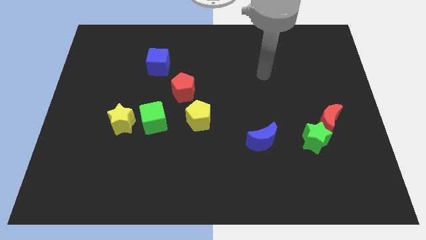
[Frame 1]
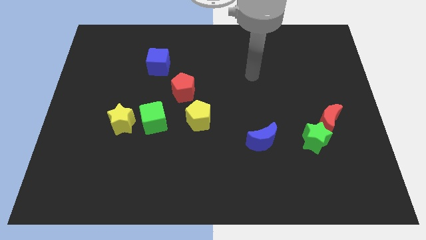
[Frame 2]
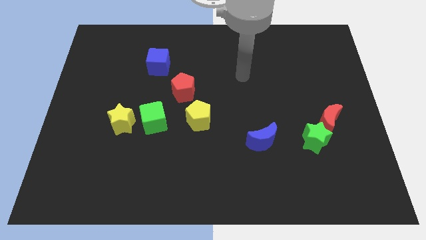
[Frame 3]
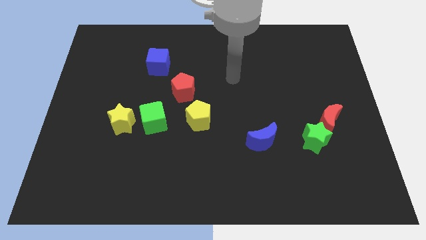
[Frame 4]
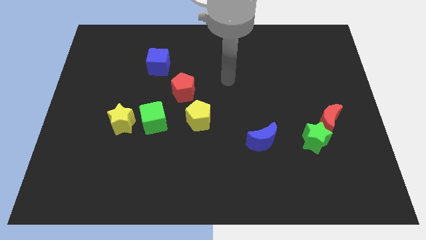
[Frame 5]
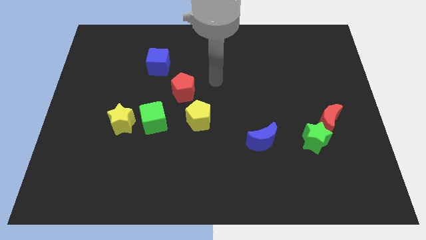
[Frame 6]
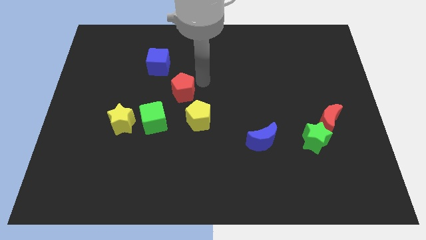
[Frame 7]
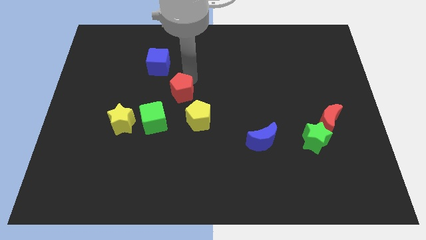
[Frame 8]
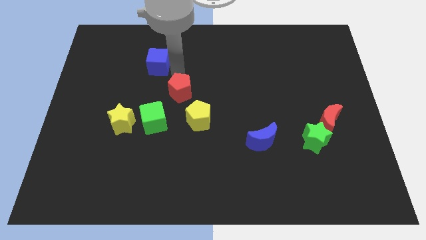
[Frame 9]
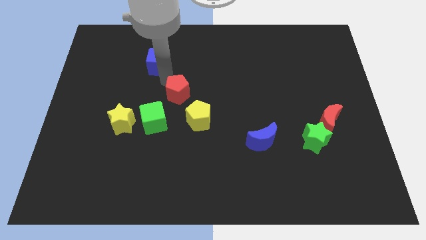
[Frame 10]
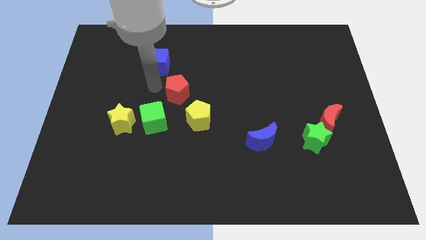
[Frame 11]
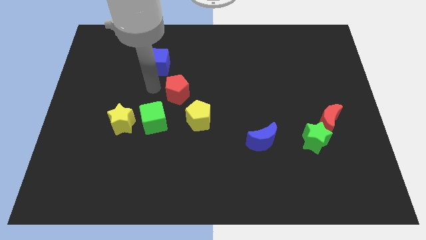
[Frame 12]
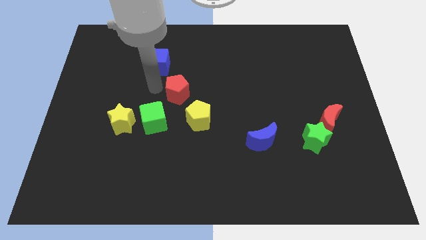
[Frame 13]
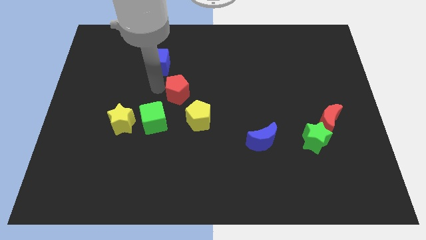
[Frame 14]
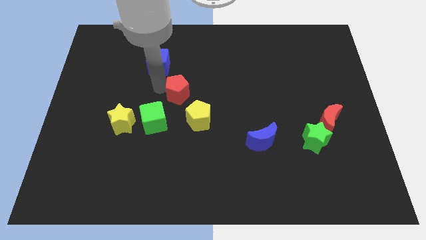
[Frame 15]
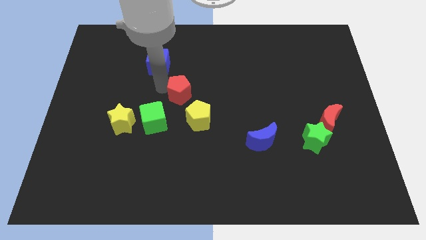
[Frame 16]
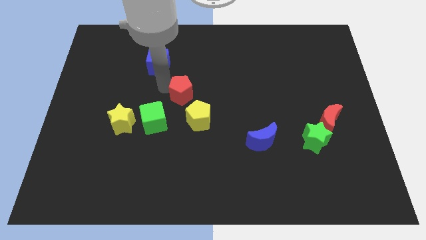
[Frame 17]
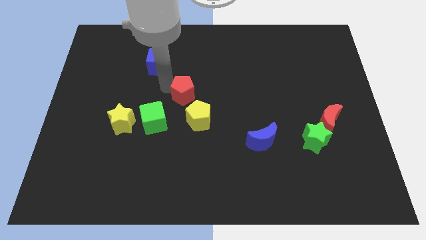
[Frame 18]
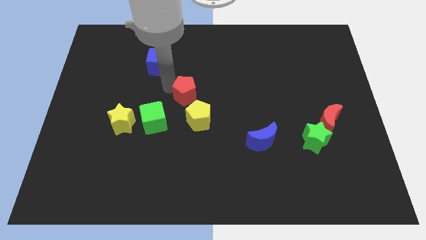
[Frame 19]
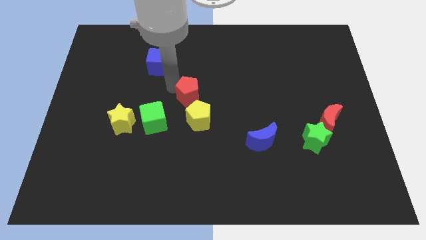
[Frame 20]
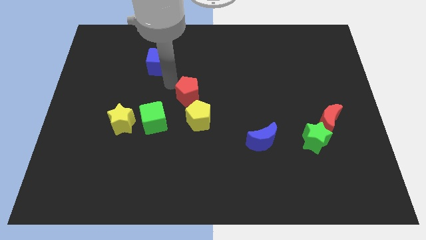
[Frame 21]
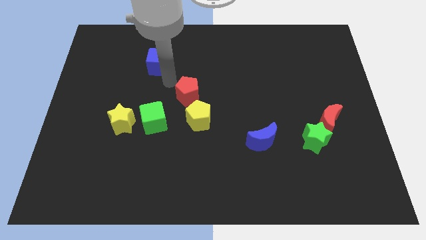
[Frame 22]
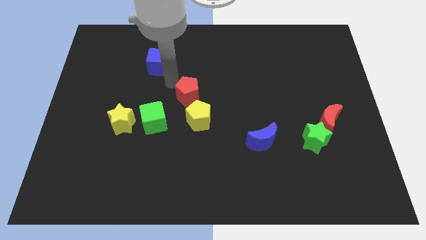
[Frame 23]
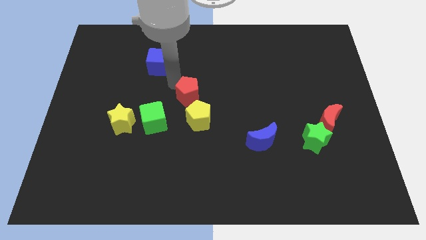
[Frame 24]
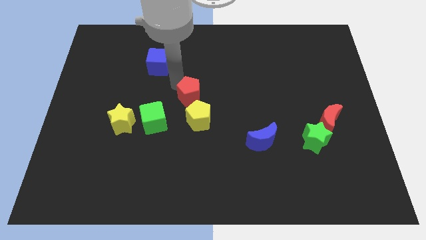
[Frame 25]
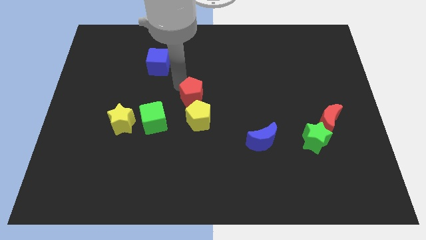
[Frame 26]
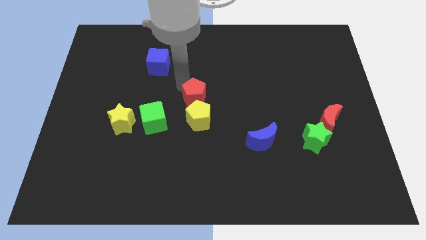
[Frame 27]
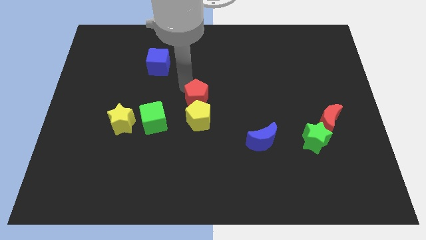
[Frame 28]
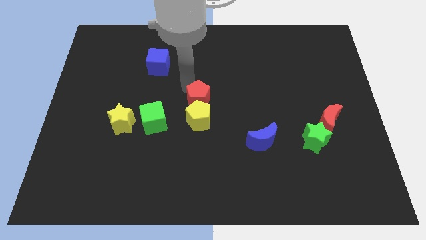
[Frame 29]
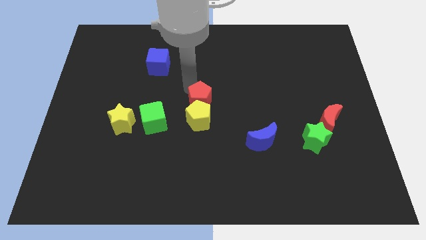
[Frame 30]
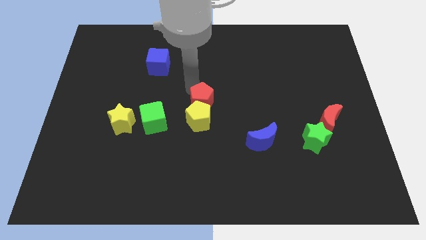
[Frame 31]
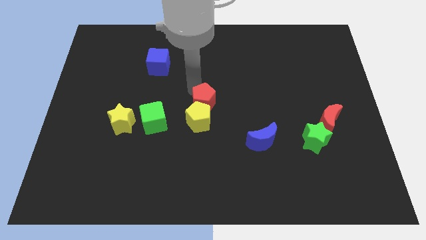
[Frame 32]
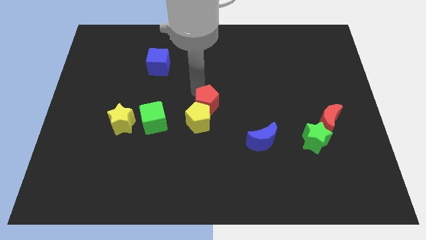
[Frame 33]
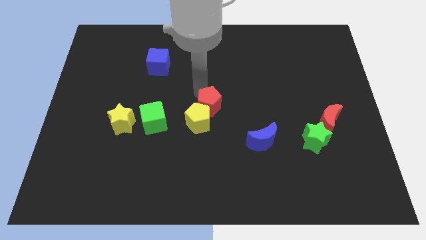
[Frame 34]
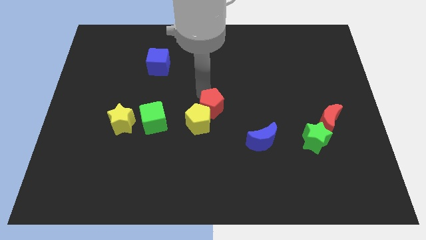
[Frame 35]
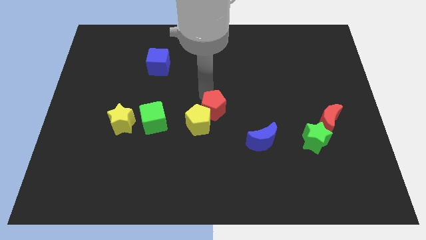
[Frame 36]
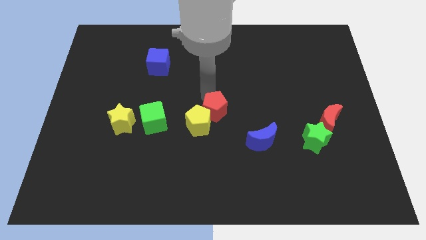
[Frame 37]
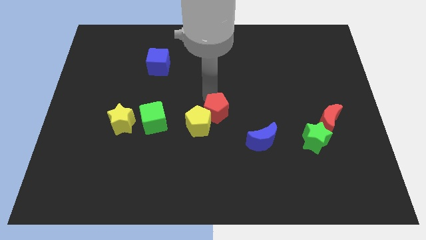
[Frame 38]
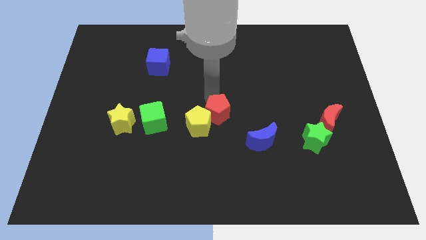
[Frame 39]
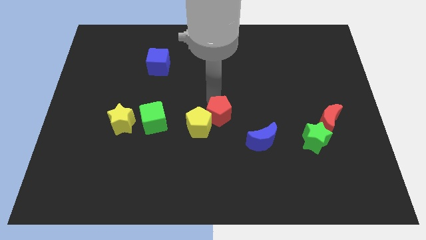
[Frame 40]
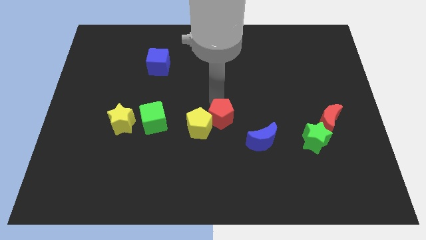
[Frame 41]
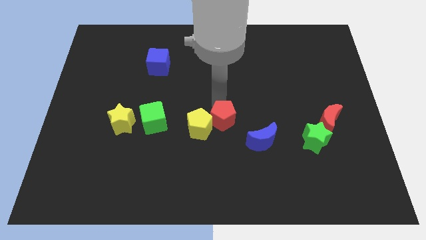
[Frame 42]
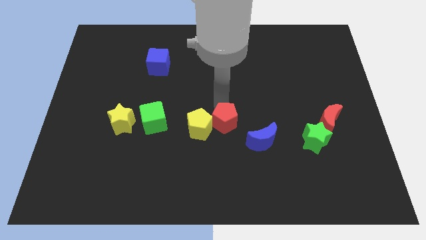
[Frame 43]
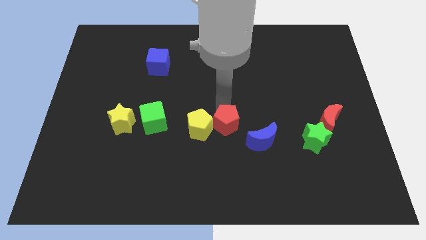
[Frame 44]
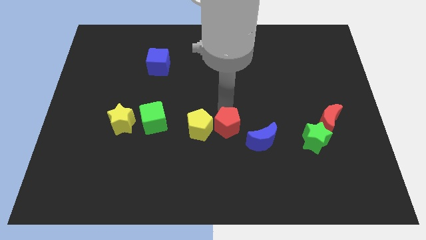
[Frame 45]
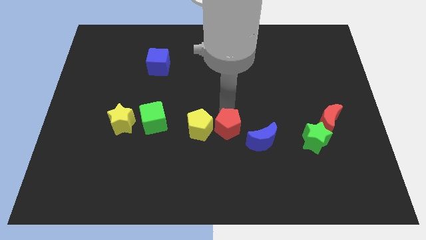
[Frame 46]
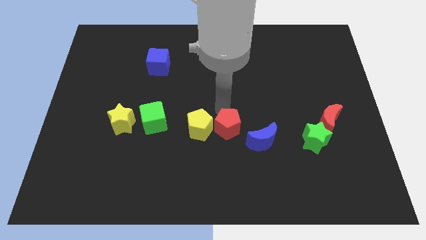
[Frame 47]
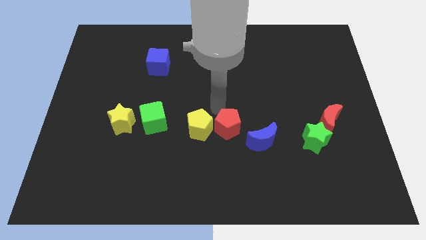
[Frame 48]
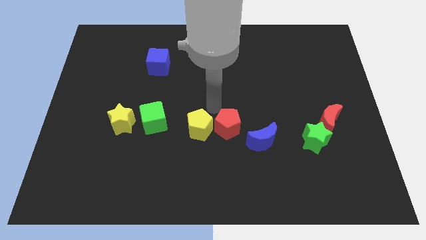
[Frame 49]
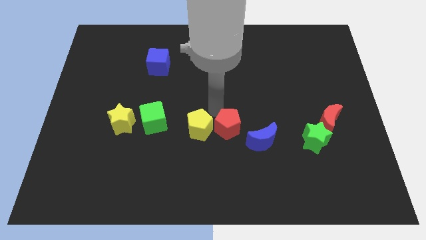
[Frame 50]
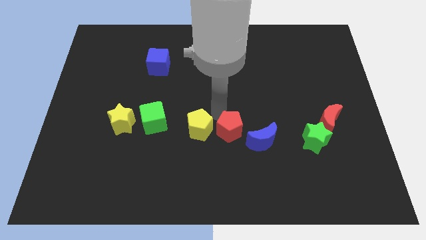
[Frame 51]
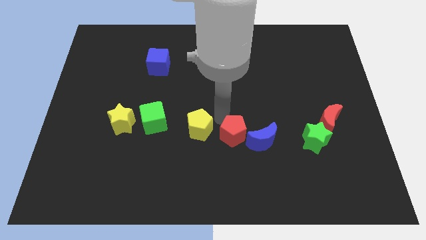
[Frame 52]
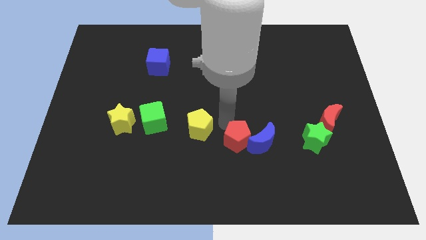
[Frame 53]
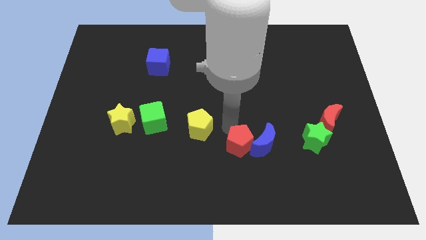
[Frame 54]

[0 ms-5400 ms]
move the red pentagon downwards and right

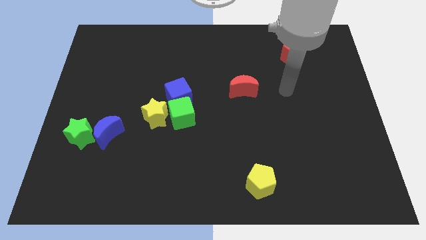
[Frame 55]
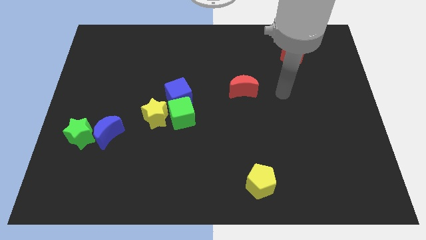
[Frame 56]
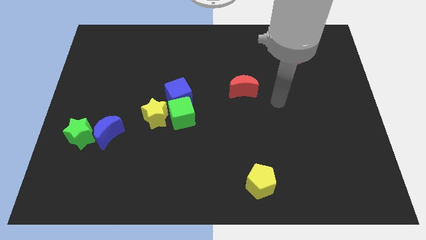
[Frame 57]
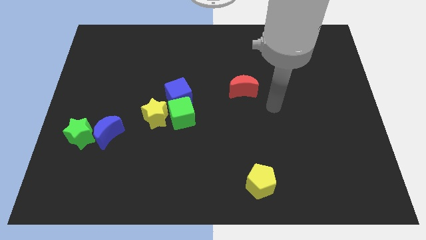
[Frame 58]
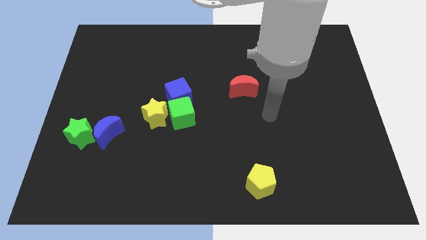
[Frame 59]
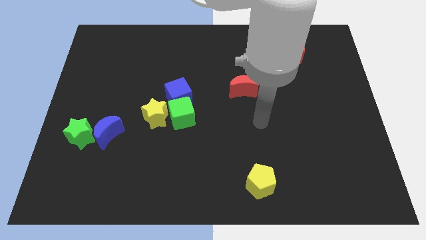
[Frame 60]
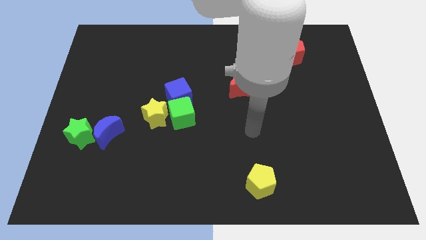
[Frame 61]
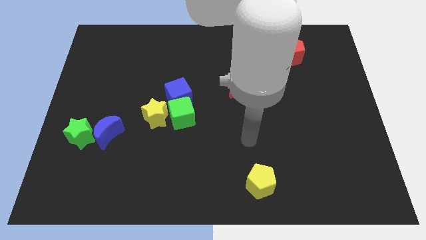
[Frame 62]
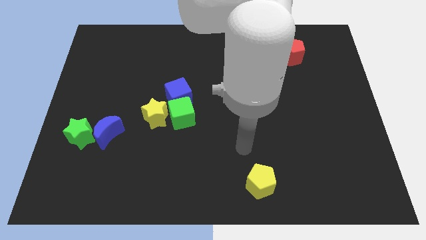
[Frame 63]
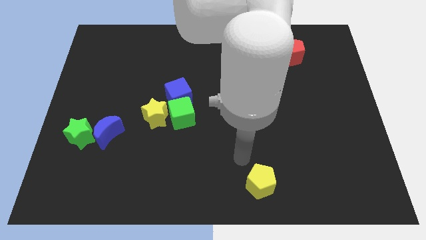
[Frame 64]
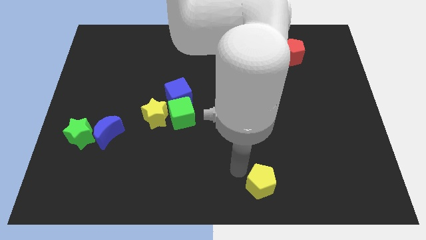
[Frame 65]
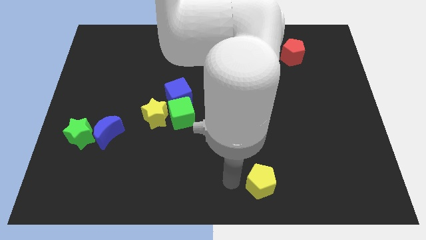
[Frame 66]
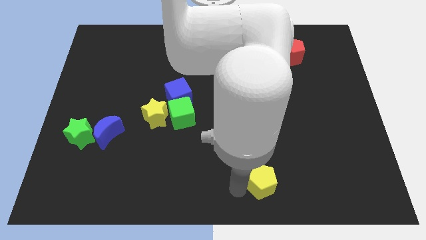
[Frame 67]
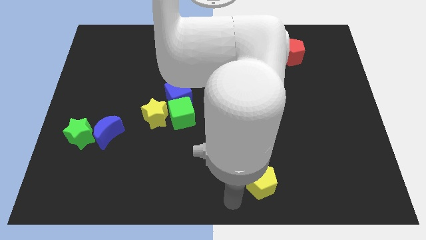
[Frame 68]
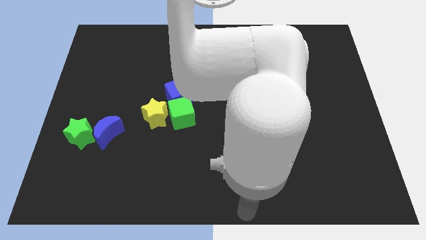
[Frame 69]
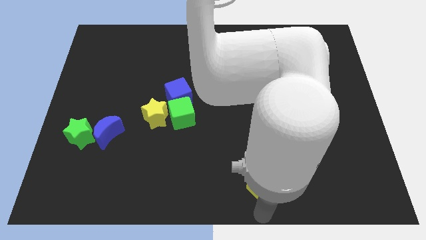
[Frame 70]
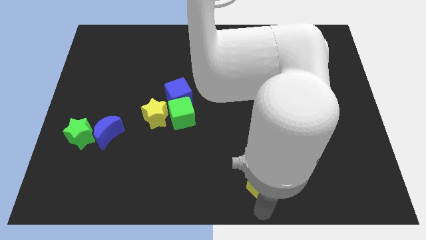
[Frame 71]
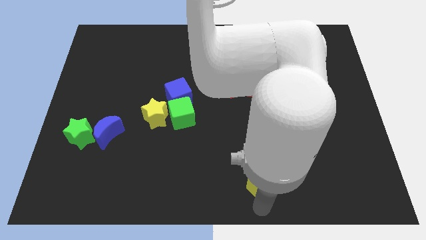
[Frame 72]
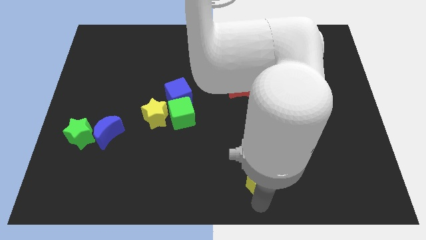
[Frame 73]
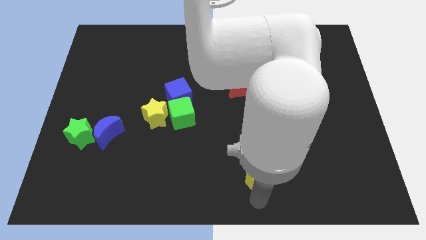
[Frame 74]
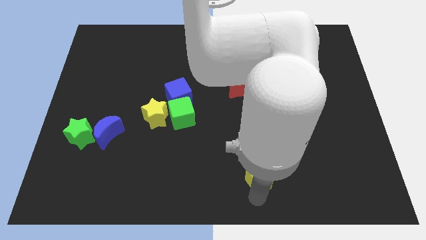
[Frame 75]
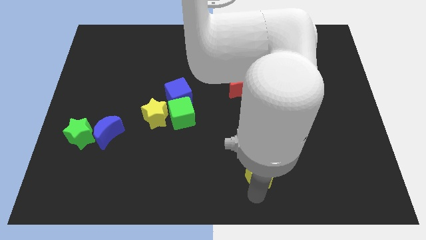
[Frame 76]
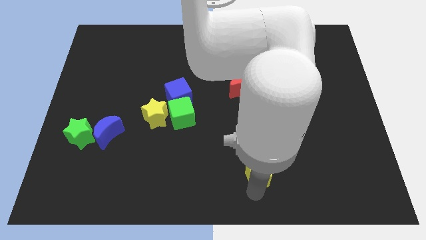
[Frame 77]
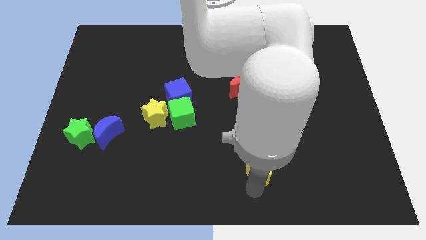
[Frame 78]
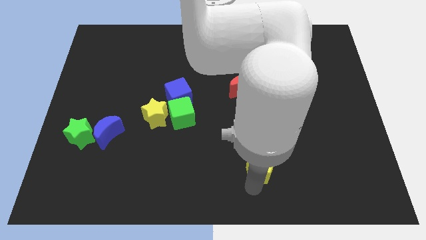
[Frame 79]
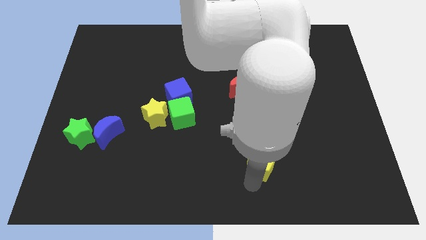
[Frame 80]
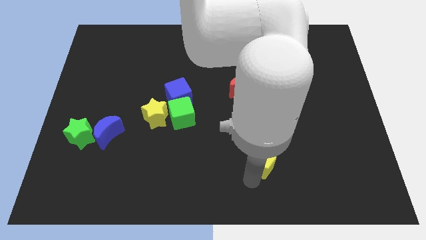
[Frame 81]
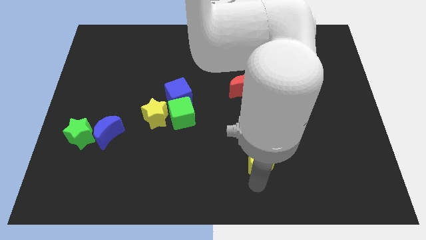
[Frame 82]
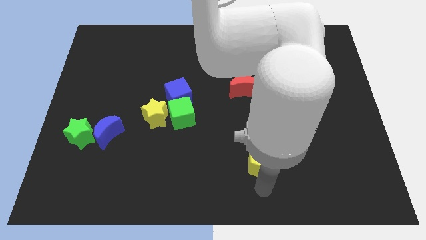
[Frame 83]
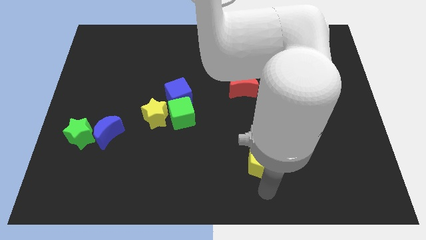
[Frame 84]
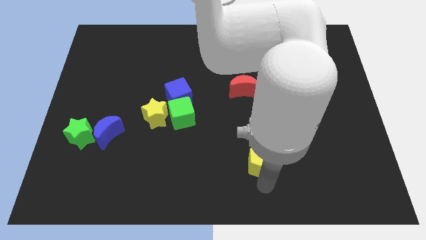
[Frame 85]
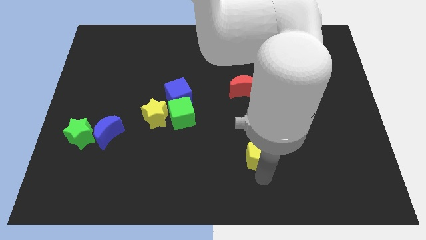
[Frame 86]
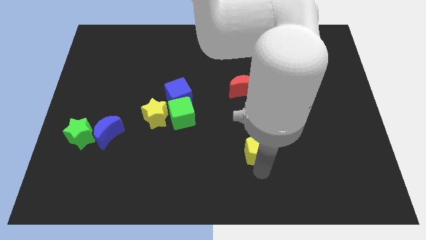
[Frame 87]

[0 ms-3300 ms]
slide the yellow pentagon a bit upwards
